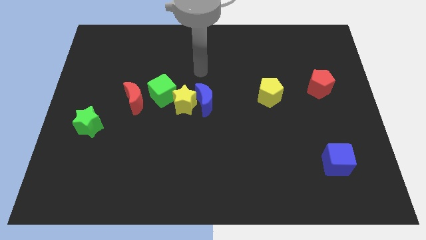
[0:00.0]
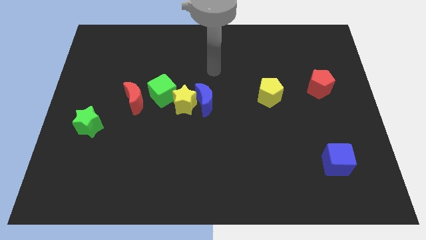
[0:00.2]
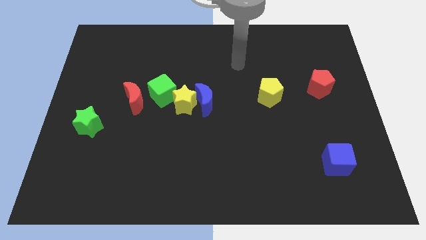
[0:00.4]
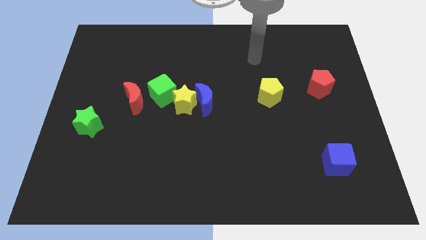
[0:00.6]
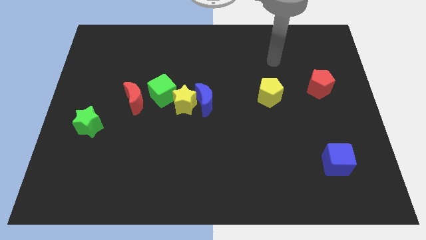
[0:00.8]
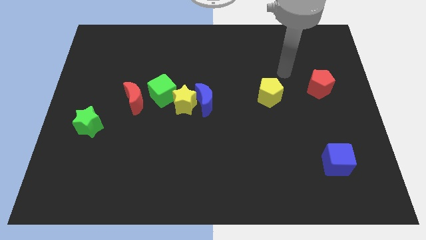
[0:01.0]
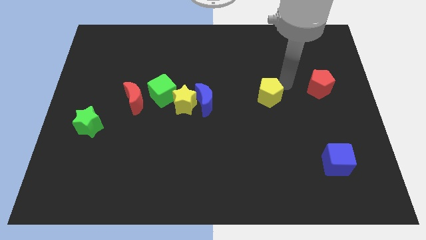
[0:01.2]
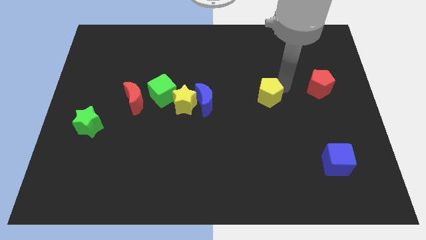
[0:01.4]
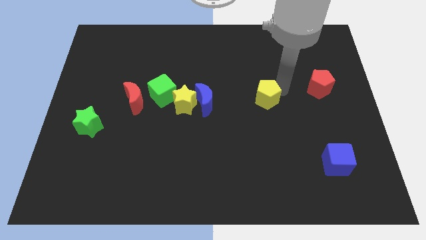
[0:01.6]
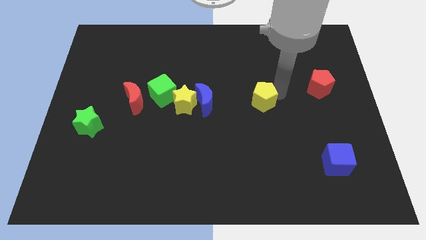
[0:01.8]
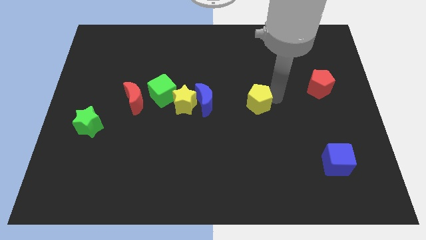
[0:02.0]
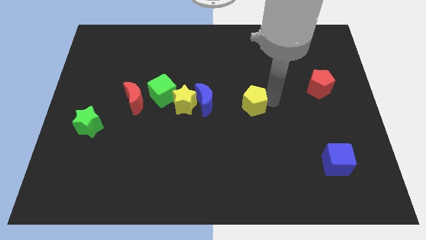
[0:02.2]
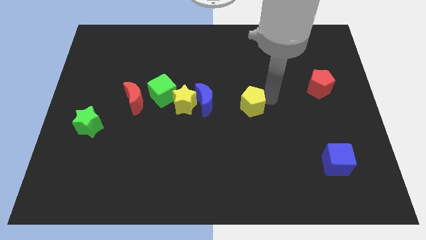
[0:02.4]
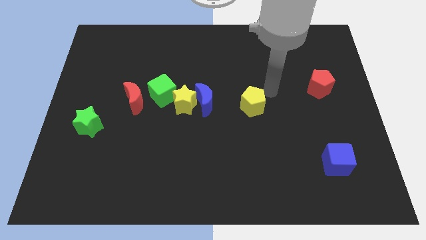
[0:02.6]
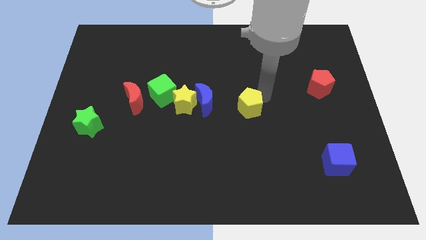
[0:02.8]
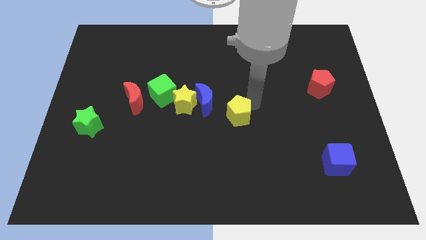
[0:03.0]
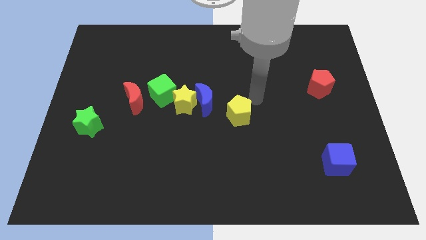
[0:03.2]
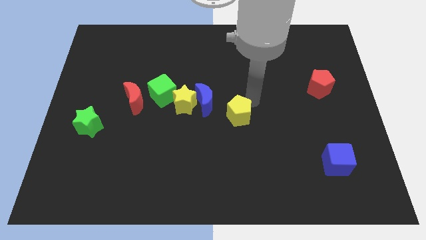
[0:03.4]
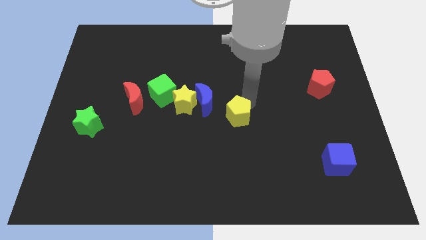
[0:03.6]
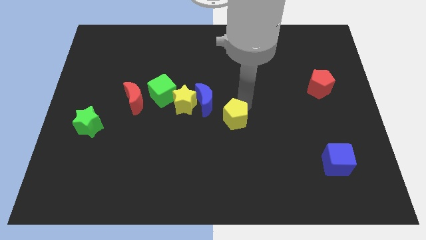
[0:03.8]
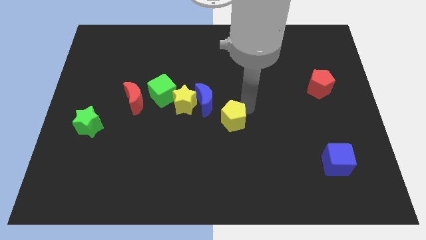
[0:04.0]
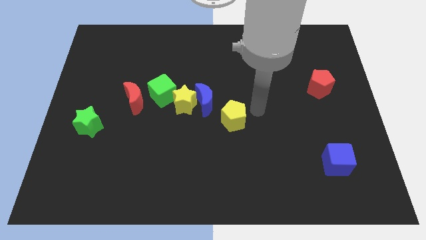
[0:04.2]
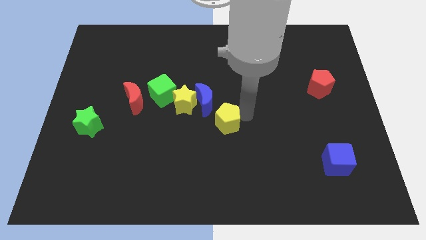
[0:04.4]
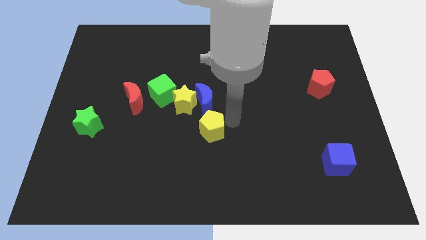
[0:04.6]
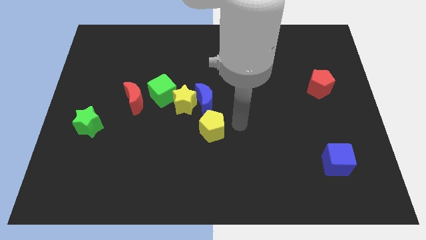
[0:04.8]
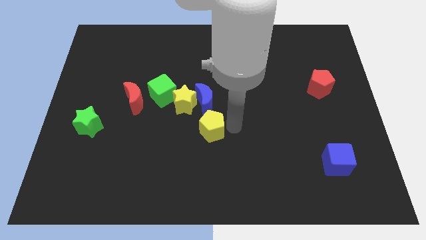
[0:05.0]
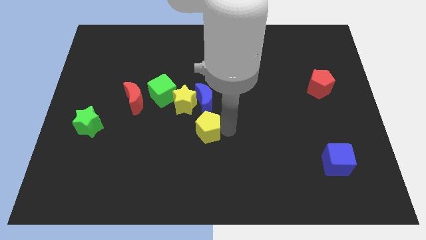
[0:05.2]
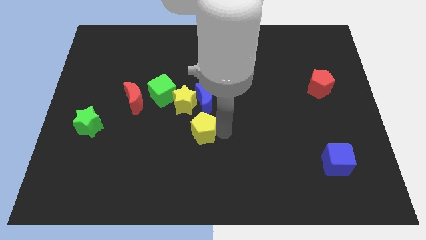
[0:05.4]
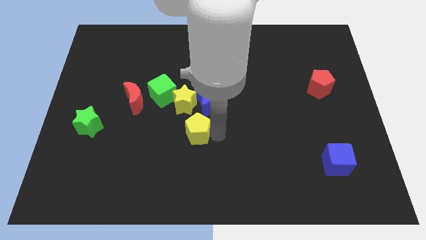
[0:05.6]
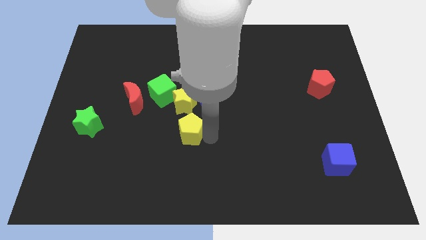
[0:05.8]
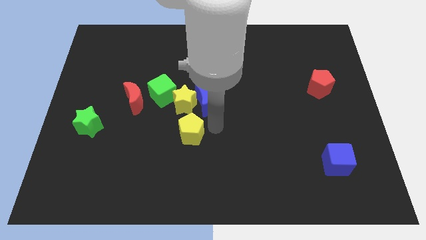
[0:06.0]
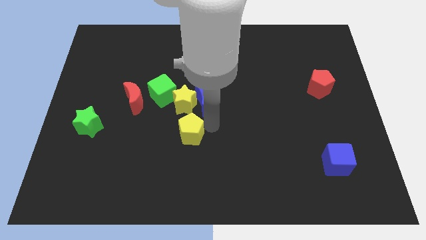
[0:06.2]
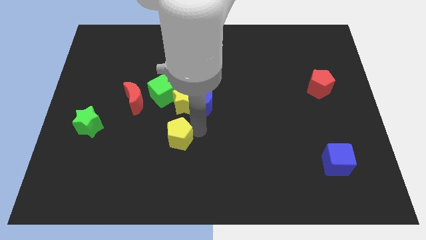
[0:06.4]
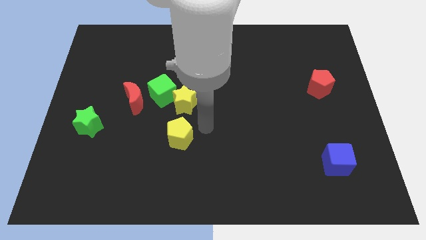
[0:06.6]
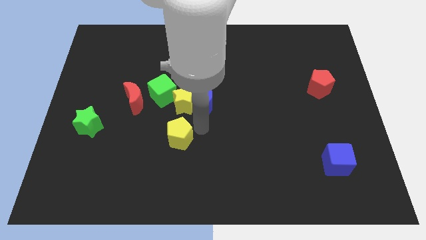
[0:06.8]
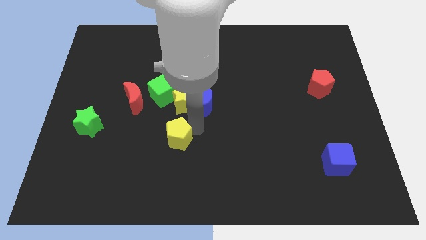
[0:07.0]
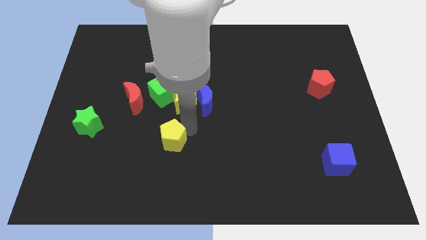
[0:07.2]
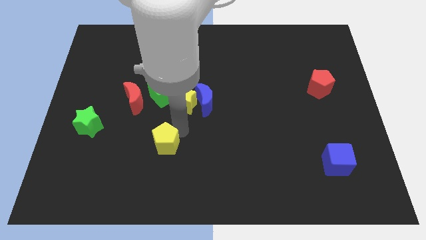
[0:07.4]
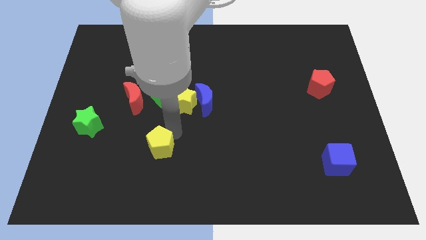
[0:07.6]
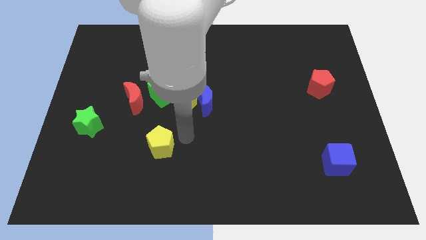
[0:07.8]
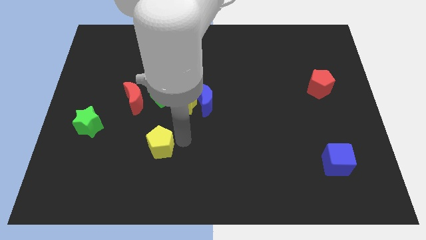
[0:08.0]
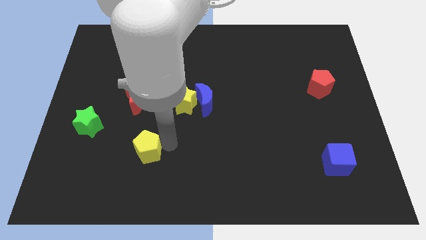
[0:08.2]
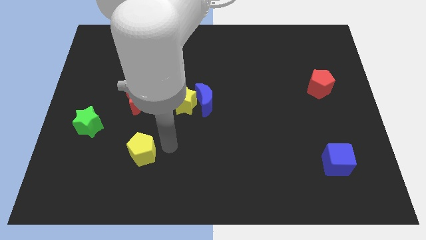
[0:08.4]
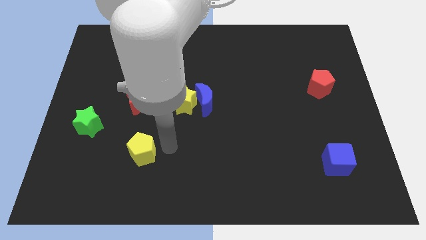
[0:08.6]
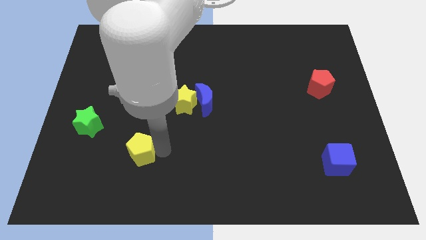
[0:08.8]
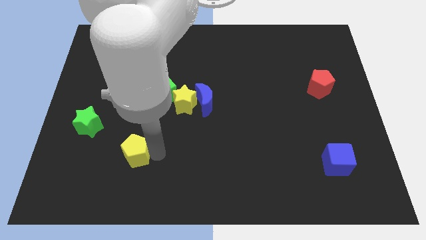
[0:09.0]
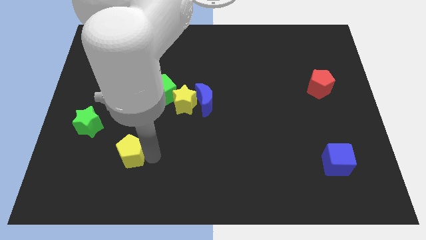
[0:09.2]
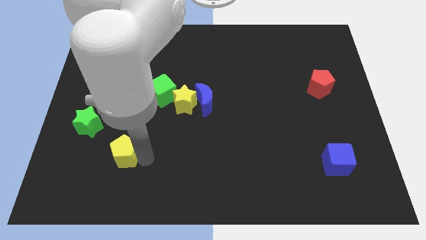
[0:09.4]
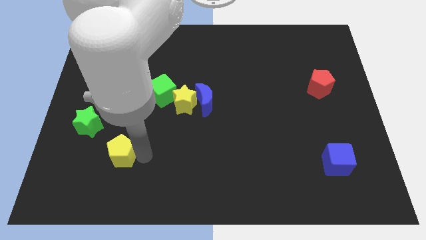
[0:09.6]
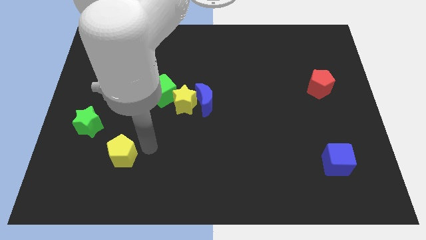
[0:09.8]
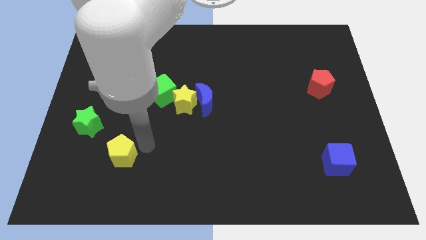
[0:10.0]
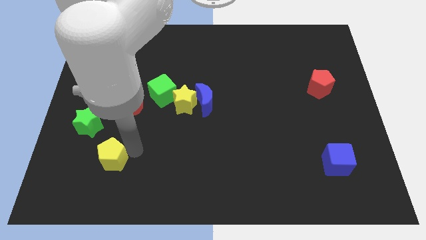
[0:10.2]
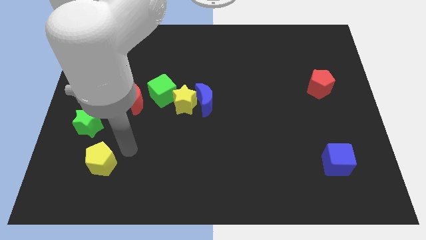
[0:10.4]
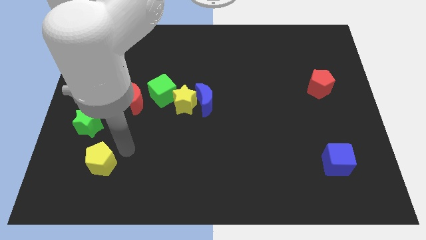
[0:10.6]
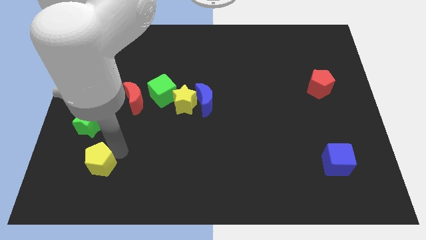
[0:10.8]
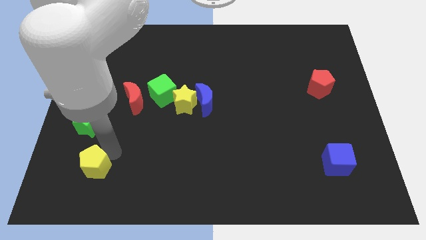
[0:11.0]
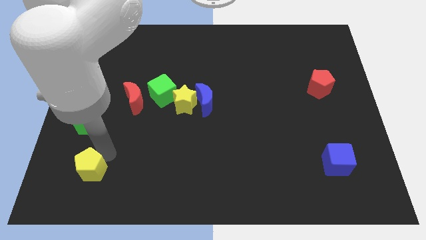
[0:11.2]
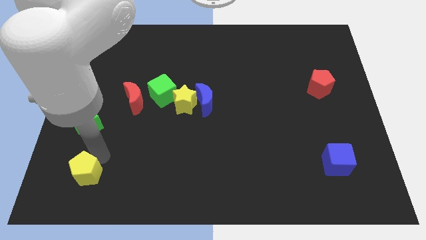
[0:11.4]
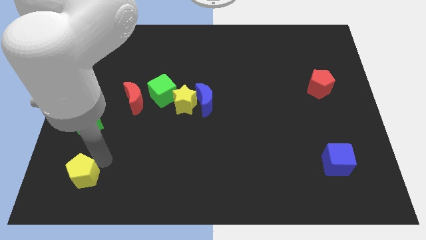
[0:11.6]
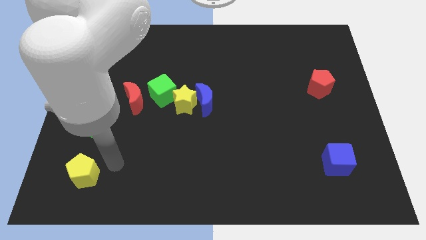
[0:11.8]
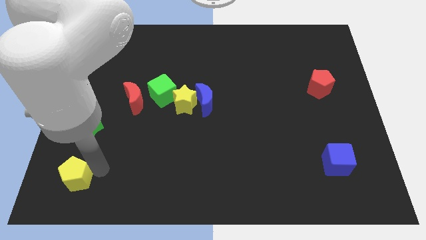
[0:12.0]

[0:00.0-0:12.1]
move the yellow pentagon to the bottom left of the board

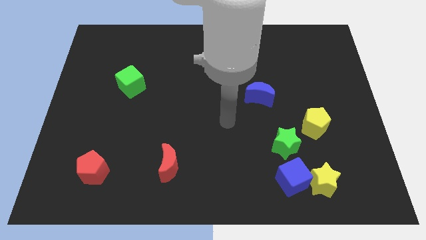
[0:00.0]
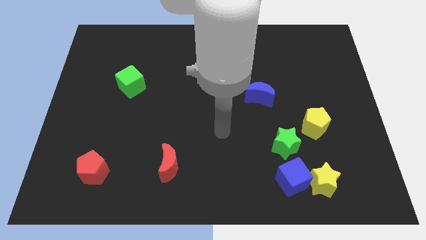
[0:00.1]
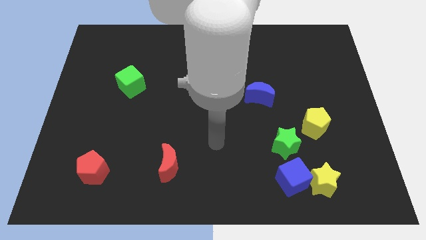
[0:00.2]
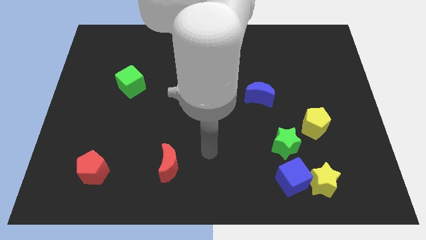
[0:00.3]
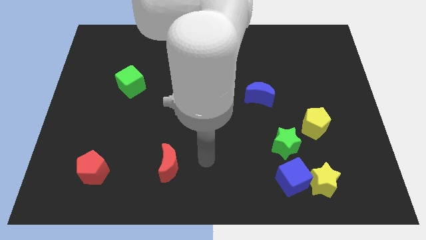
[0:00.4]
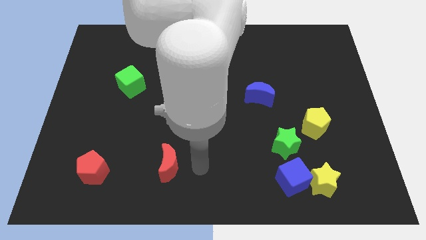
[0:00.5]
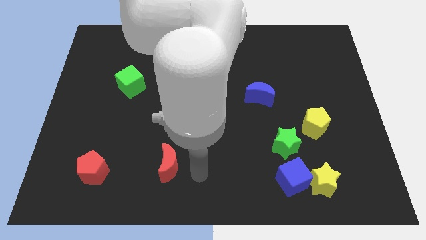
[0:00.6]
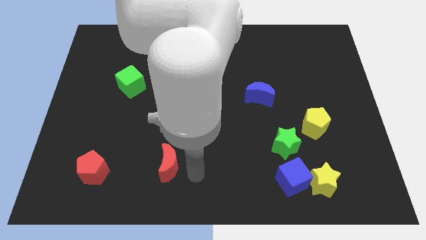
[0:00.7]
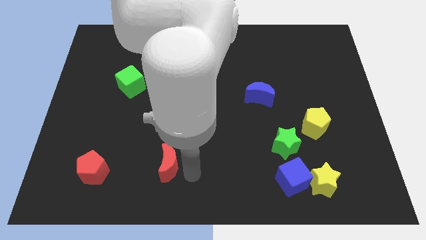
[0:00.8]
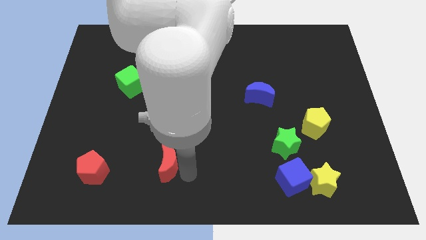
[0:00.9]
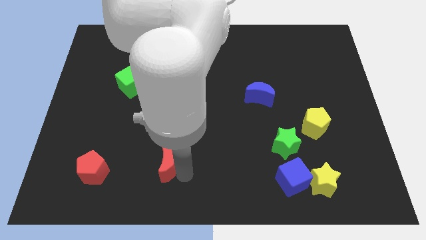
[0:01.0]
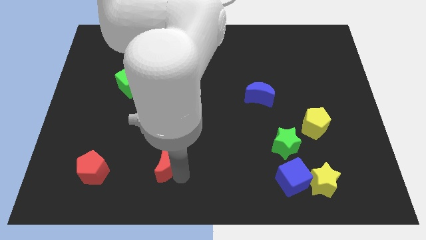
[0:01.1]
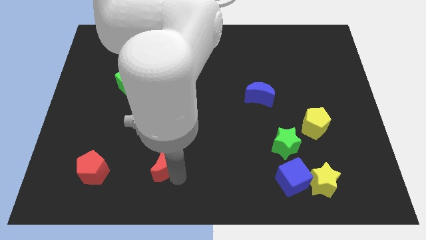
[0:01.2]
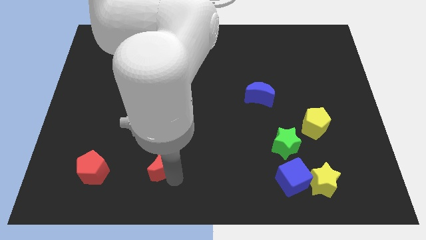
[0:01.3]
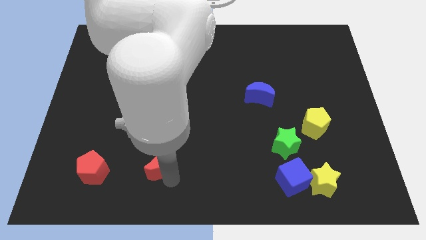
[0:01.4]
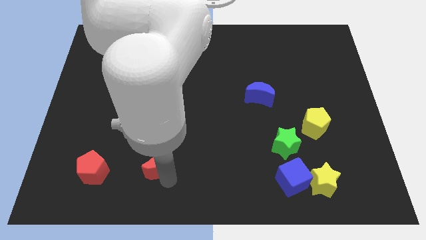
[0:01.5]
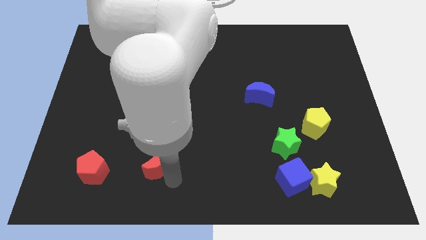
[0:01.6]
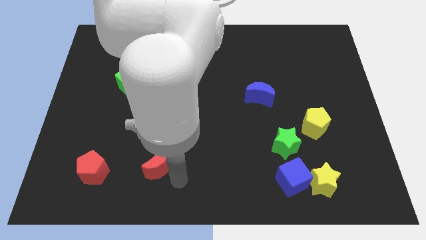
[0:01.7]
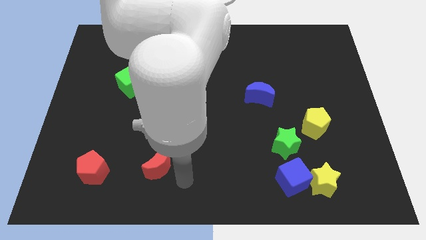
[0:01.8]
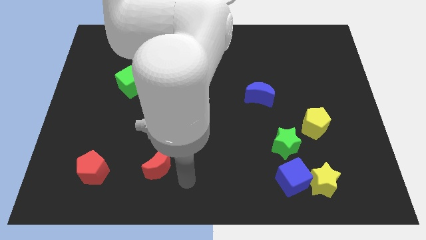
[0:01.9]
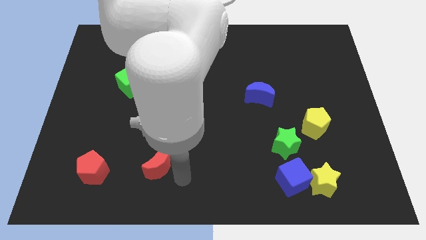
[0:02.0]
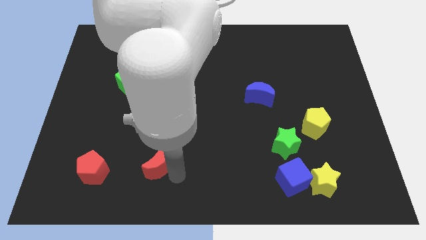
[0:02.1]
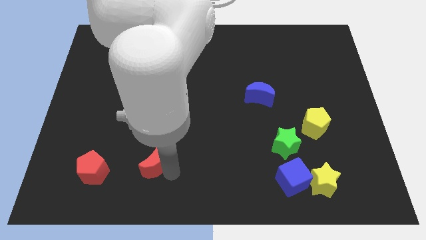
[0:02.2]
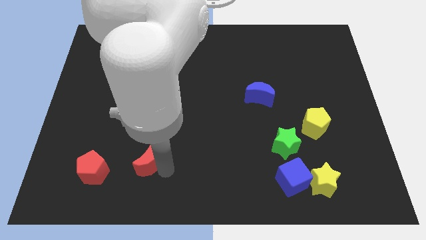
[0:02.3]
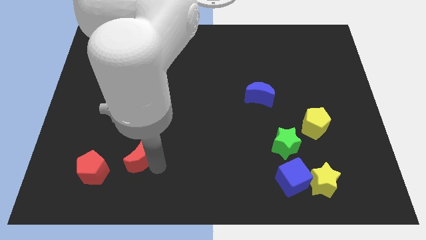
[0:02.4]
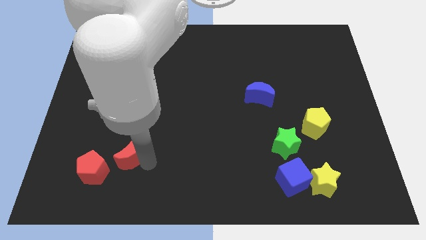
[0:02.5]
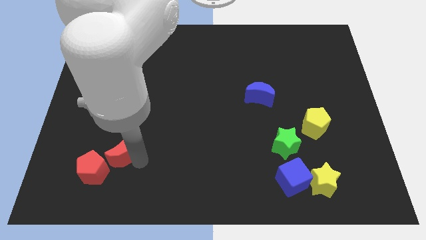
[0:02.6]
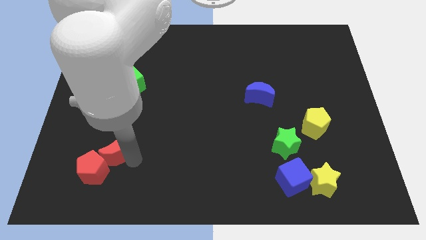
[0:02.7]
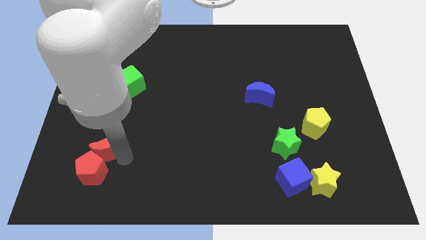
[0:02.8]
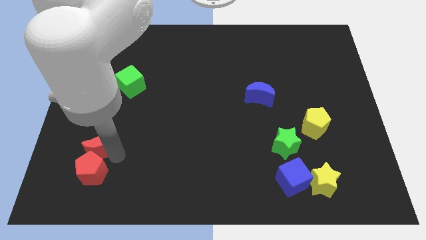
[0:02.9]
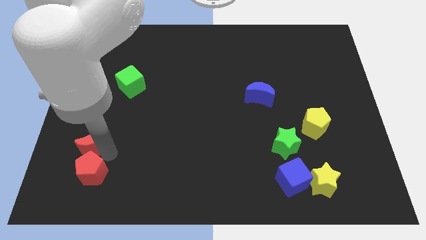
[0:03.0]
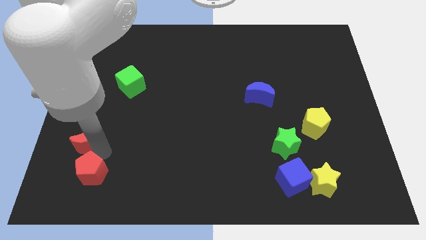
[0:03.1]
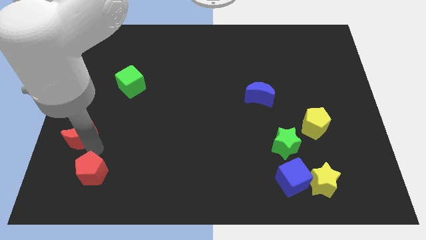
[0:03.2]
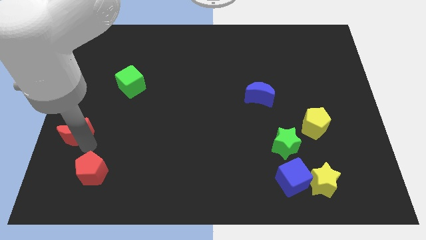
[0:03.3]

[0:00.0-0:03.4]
slide the red moon to the center left
